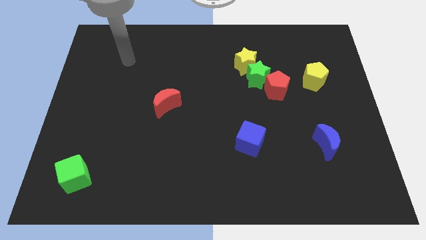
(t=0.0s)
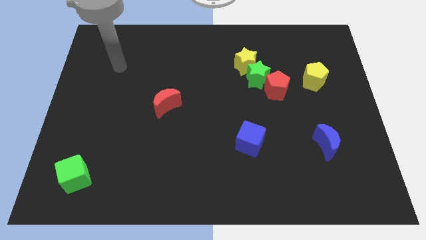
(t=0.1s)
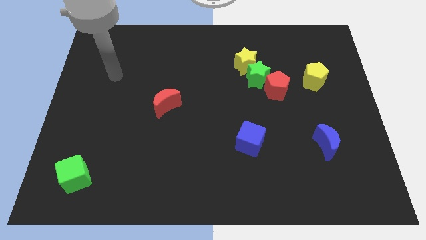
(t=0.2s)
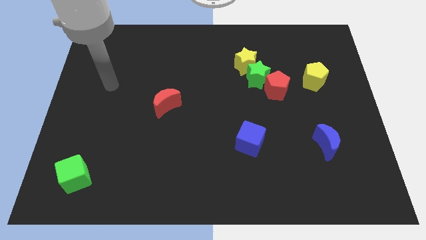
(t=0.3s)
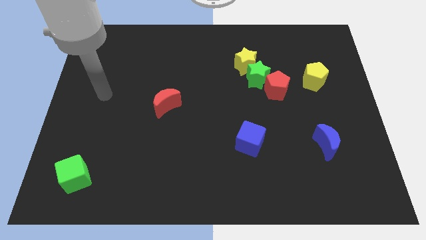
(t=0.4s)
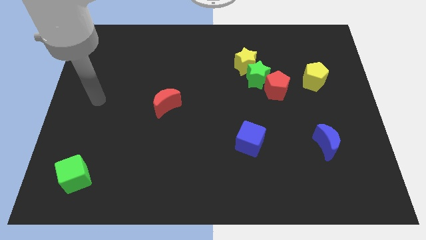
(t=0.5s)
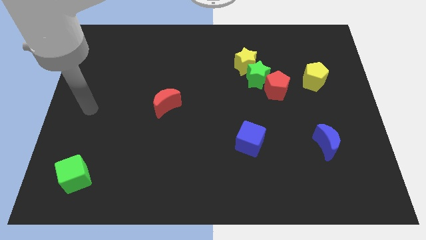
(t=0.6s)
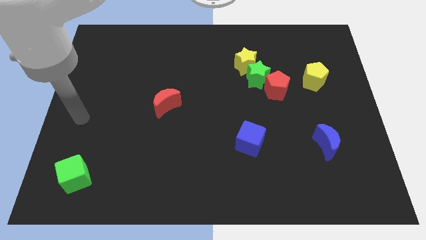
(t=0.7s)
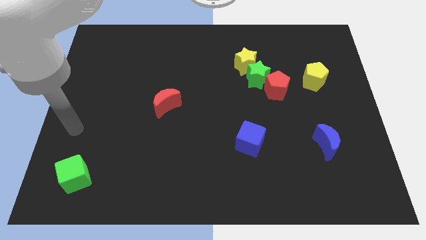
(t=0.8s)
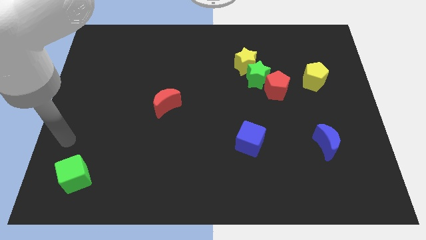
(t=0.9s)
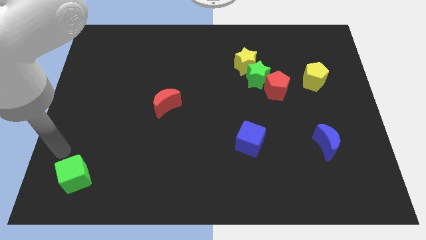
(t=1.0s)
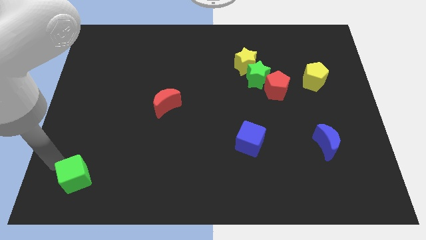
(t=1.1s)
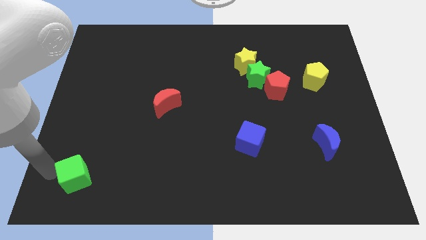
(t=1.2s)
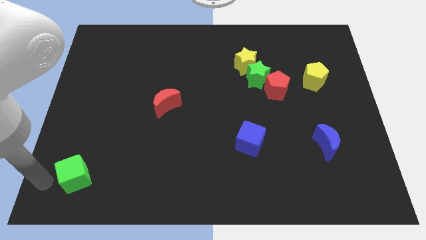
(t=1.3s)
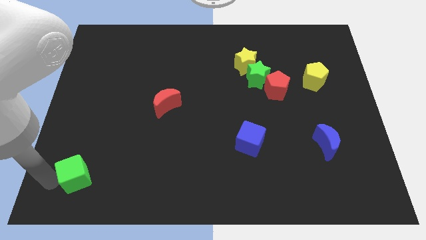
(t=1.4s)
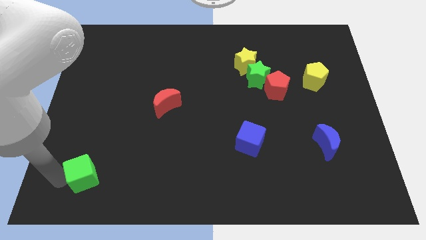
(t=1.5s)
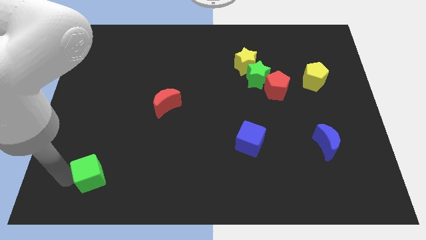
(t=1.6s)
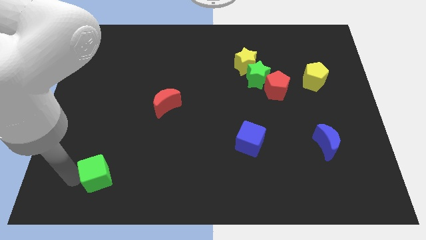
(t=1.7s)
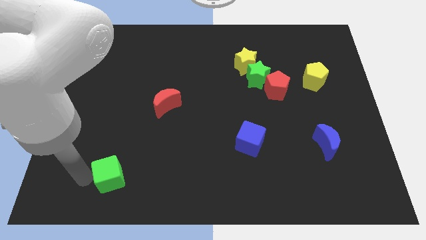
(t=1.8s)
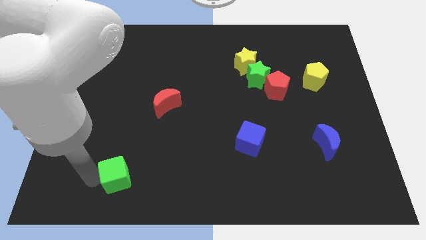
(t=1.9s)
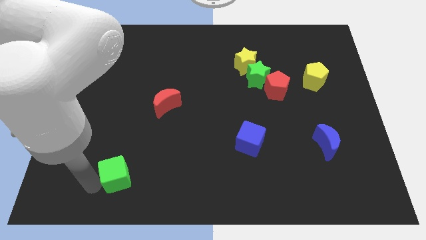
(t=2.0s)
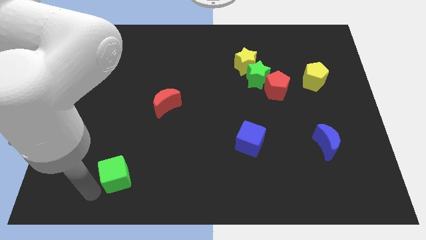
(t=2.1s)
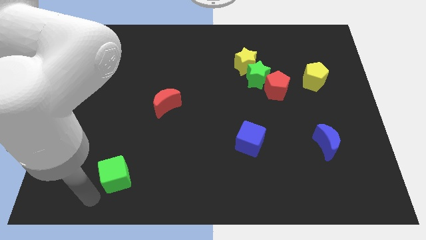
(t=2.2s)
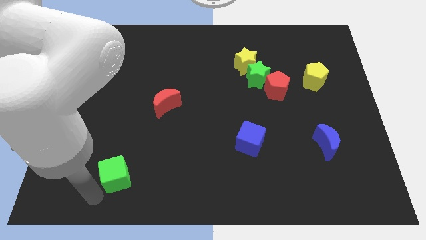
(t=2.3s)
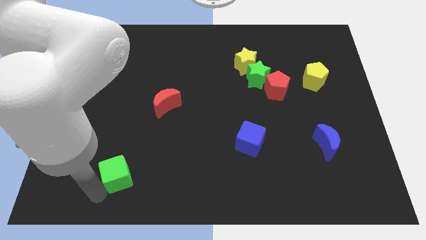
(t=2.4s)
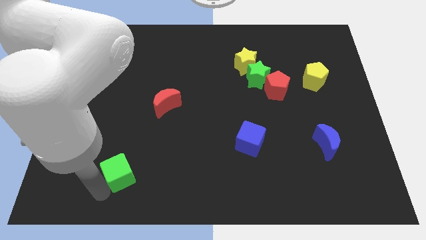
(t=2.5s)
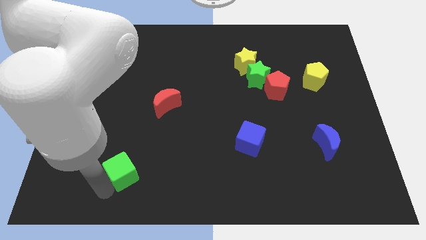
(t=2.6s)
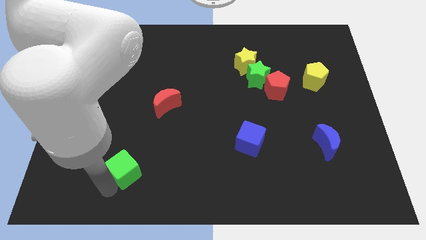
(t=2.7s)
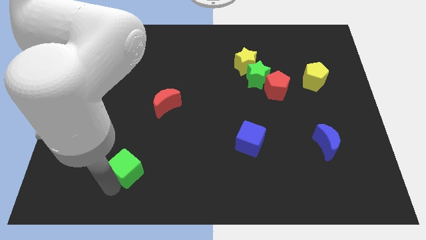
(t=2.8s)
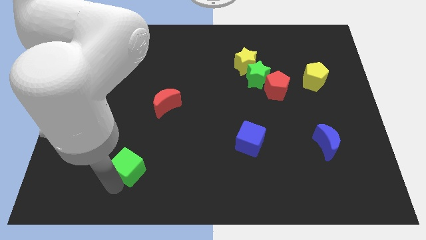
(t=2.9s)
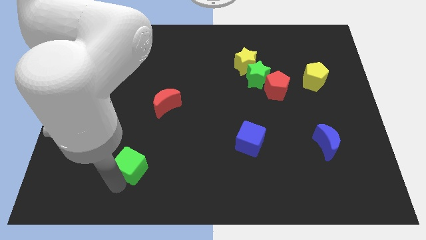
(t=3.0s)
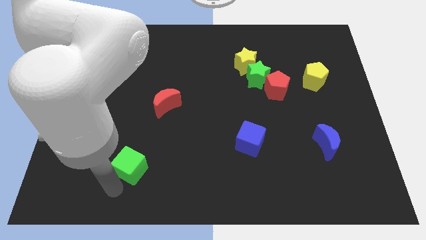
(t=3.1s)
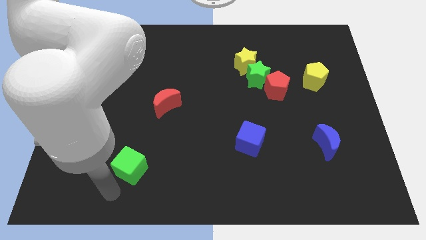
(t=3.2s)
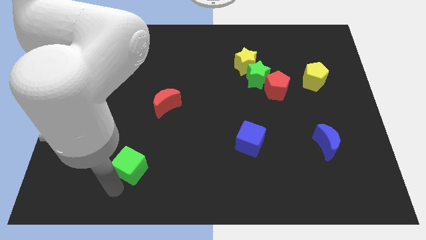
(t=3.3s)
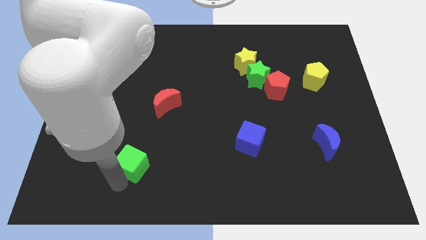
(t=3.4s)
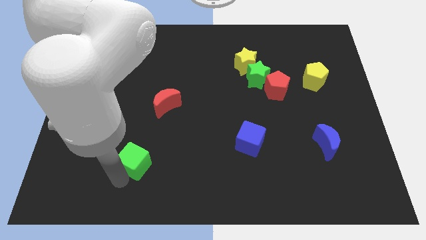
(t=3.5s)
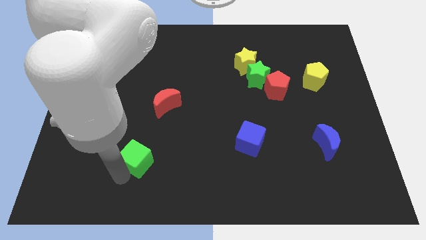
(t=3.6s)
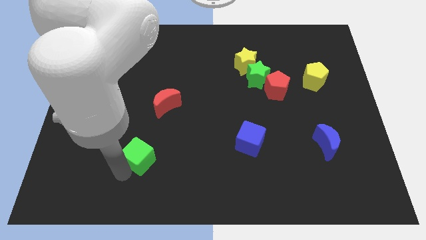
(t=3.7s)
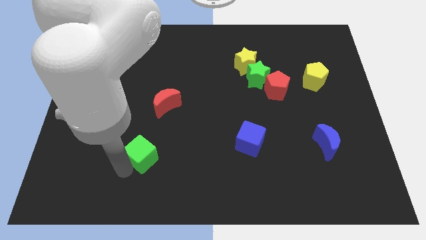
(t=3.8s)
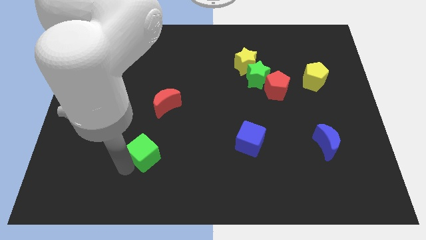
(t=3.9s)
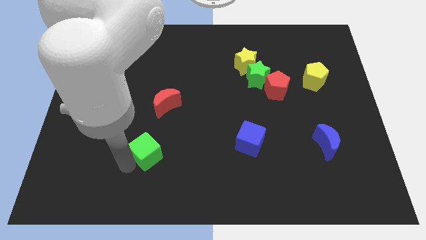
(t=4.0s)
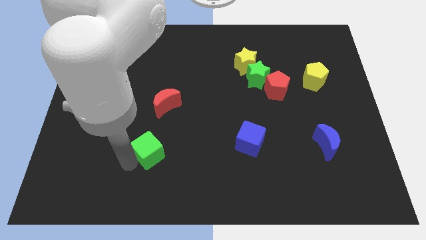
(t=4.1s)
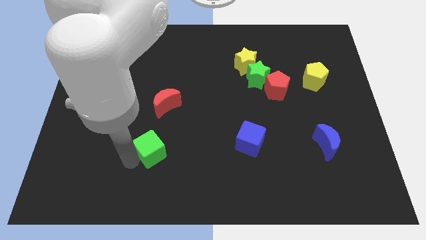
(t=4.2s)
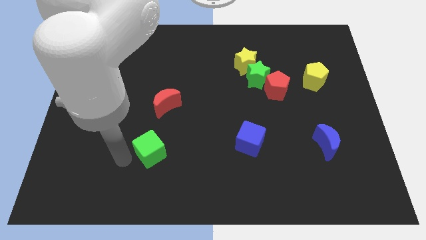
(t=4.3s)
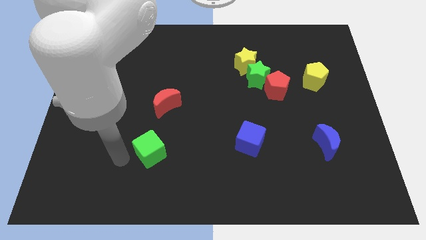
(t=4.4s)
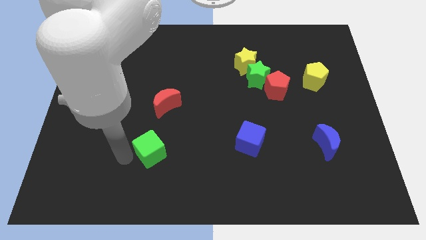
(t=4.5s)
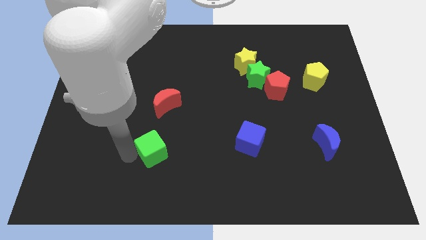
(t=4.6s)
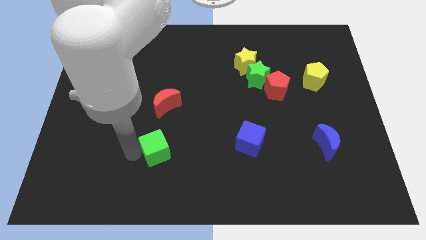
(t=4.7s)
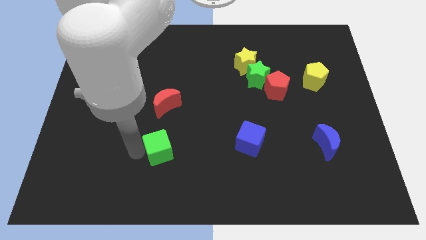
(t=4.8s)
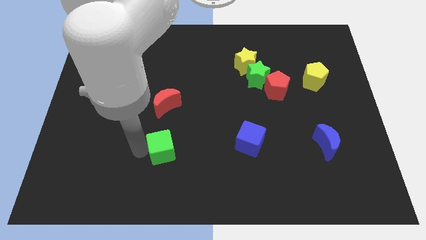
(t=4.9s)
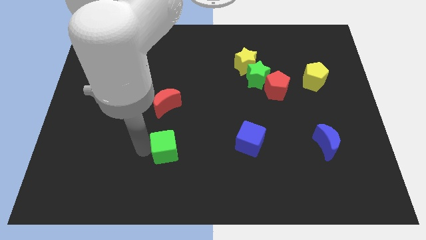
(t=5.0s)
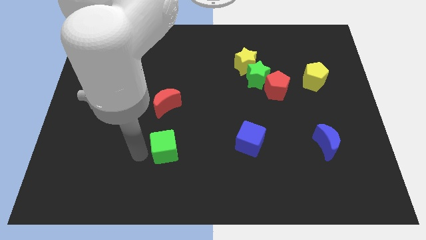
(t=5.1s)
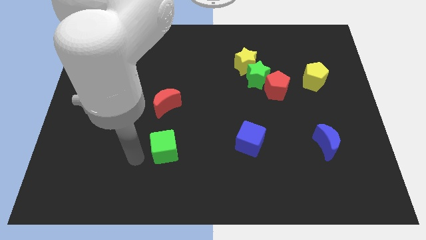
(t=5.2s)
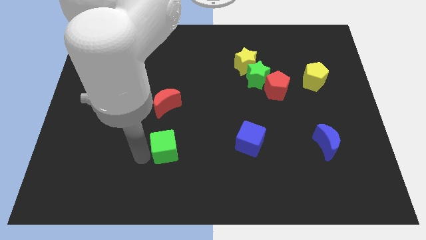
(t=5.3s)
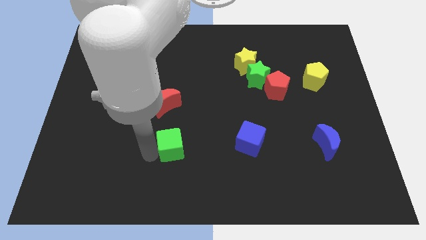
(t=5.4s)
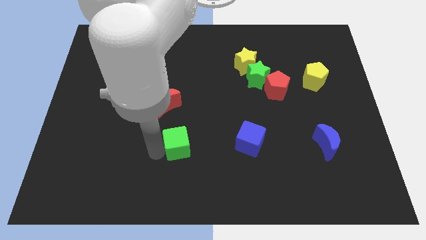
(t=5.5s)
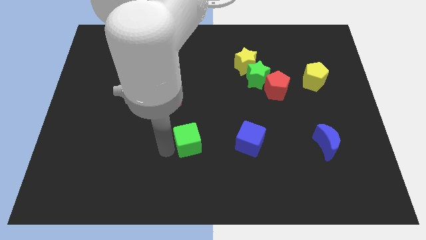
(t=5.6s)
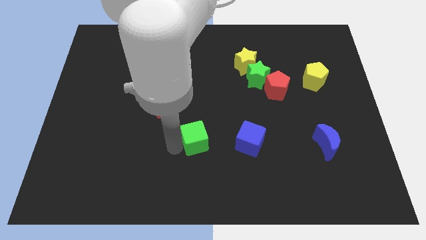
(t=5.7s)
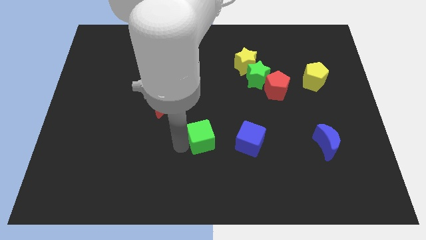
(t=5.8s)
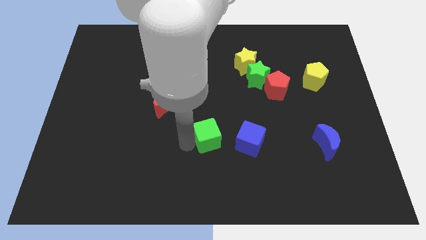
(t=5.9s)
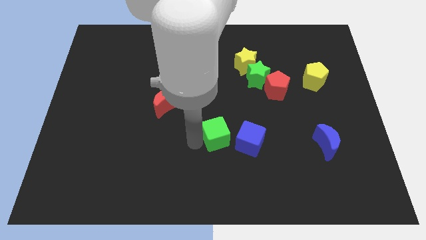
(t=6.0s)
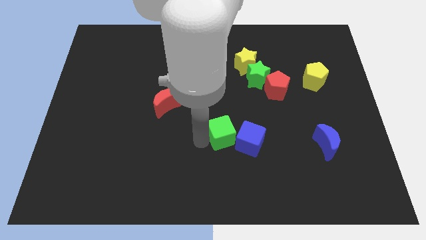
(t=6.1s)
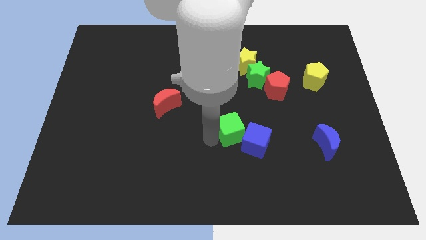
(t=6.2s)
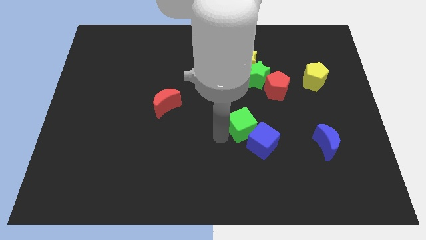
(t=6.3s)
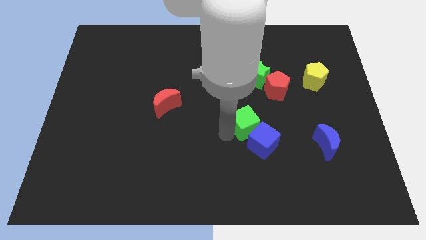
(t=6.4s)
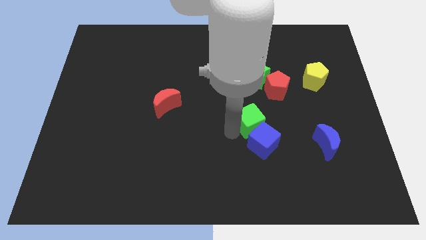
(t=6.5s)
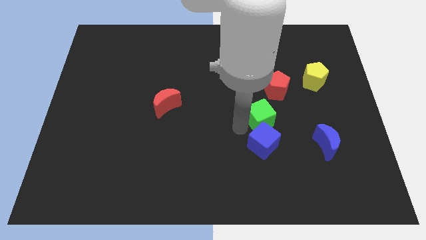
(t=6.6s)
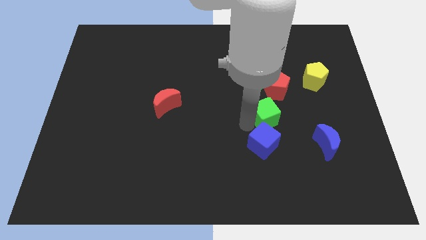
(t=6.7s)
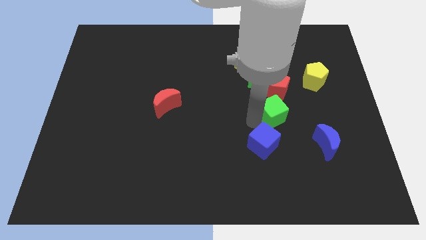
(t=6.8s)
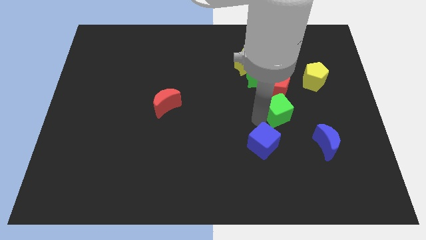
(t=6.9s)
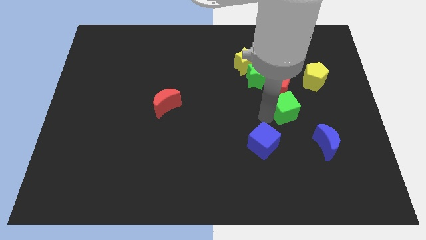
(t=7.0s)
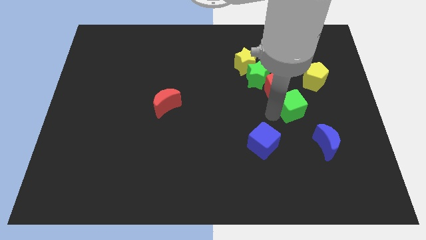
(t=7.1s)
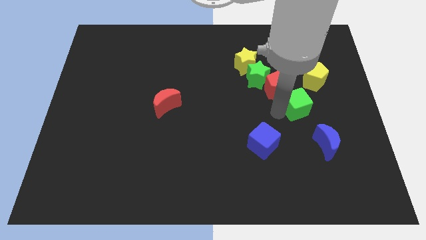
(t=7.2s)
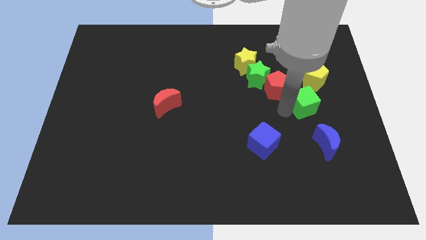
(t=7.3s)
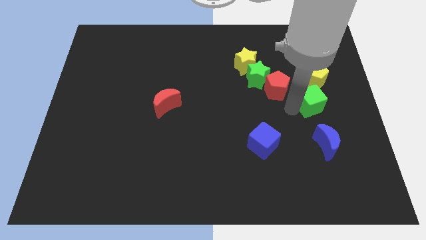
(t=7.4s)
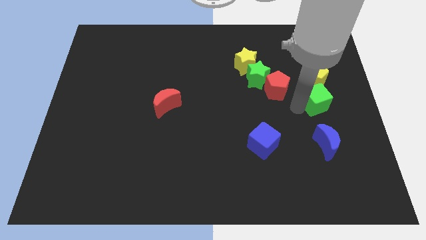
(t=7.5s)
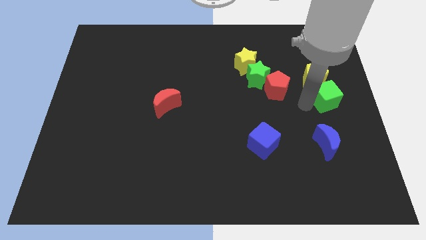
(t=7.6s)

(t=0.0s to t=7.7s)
slide the green cube to the right side of the board
